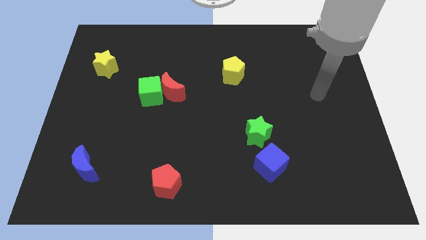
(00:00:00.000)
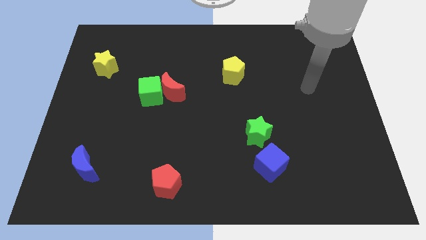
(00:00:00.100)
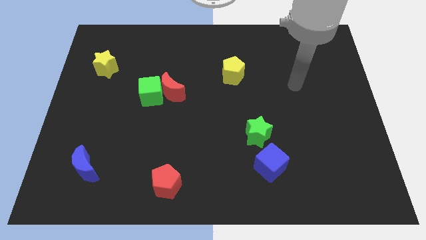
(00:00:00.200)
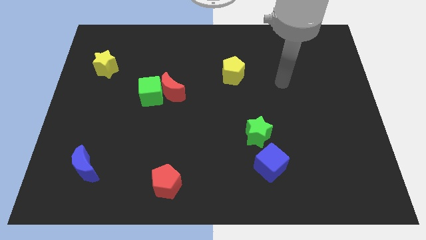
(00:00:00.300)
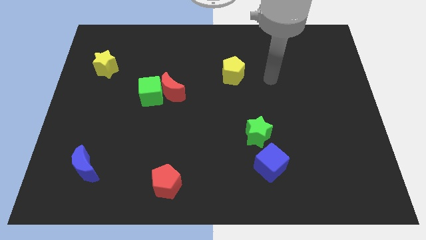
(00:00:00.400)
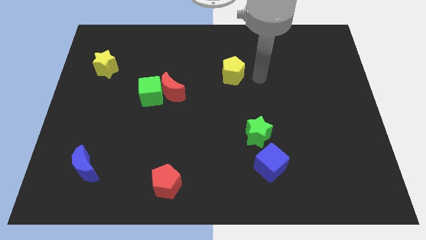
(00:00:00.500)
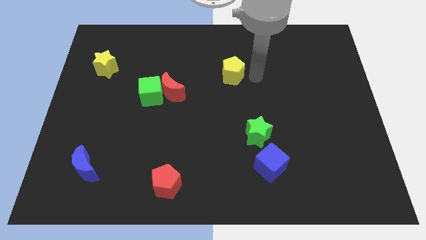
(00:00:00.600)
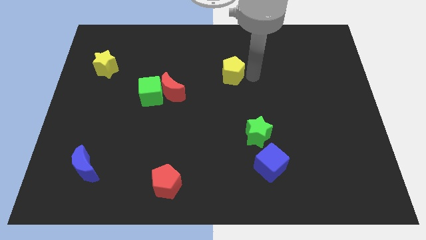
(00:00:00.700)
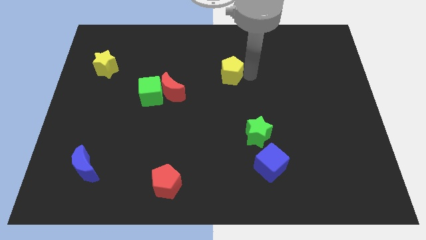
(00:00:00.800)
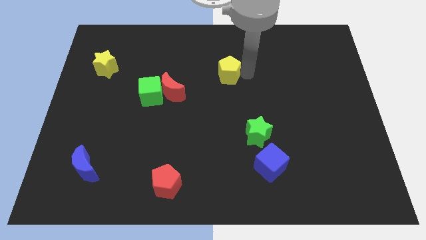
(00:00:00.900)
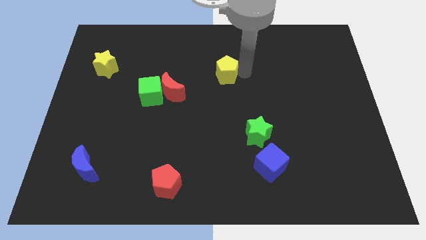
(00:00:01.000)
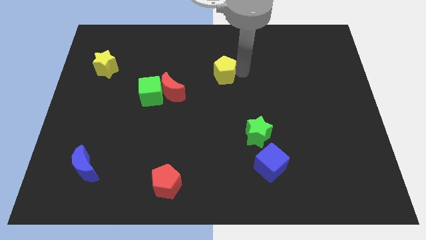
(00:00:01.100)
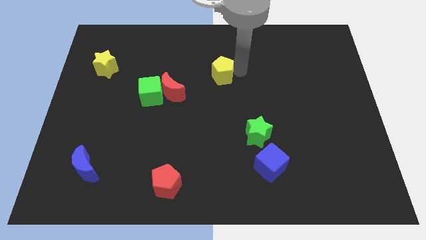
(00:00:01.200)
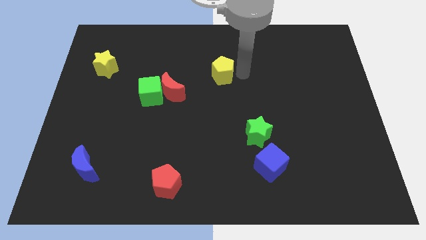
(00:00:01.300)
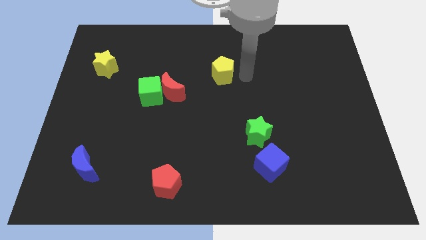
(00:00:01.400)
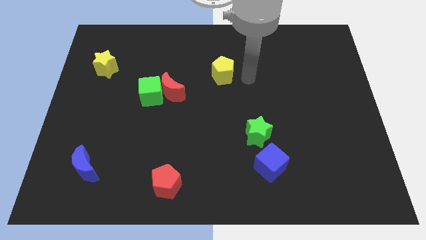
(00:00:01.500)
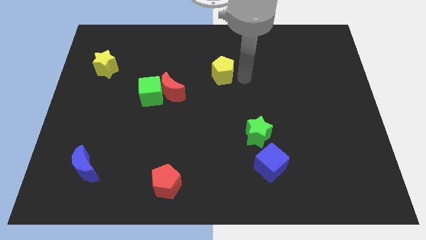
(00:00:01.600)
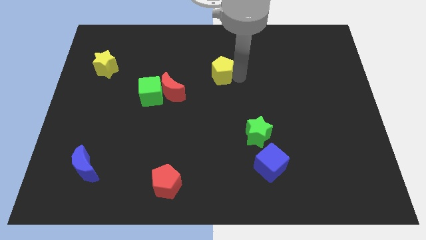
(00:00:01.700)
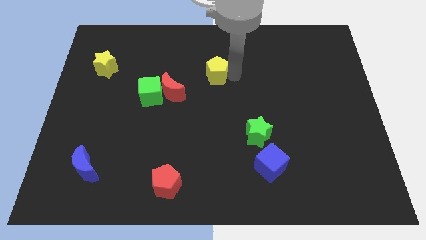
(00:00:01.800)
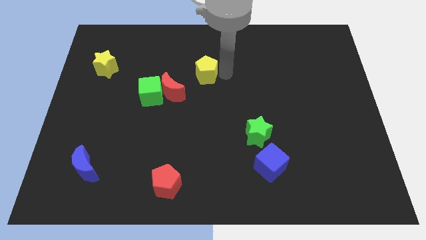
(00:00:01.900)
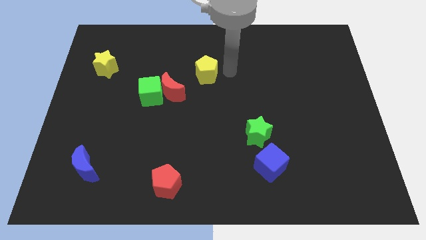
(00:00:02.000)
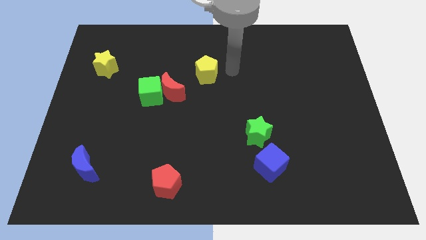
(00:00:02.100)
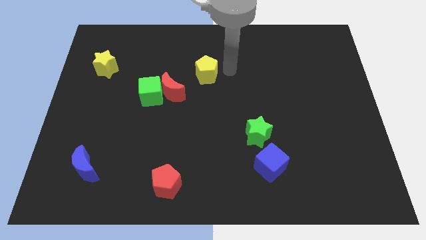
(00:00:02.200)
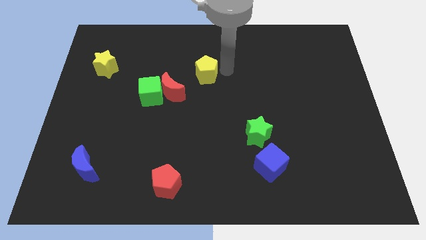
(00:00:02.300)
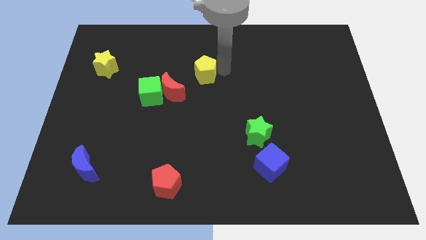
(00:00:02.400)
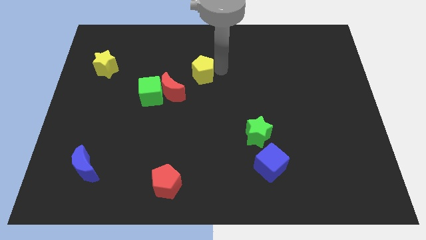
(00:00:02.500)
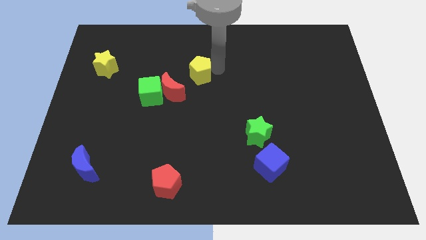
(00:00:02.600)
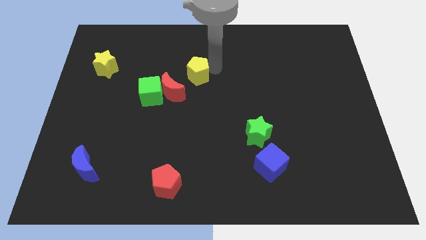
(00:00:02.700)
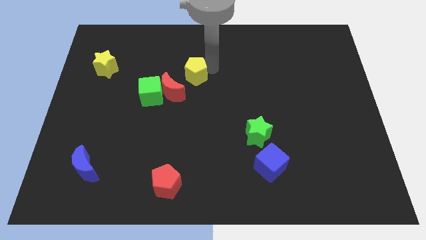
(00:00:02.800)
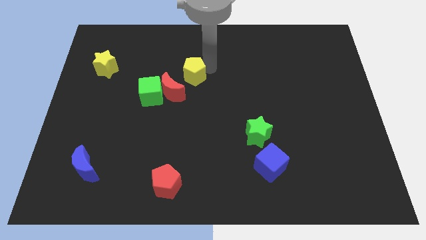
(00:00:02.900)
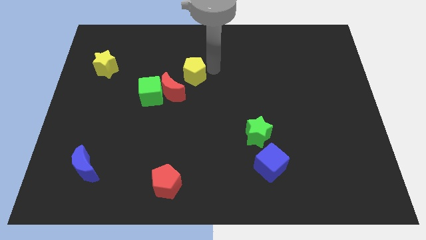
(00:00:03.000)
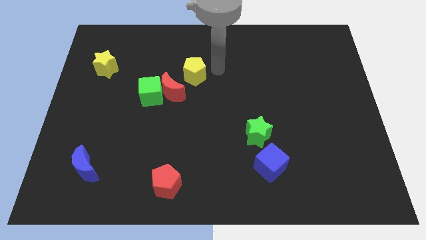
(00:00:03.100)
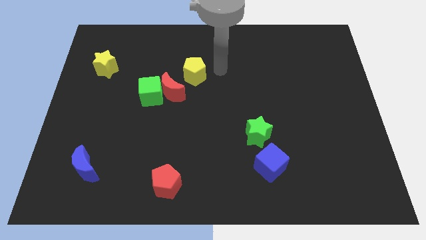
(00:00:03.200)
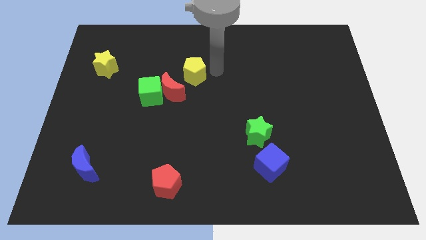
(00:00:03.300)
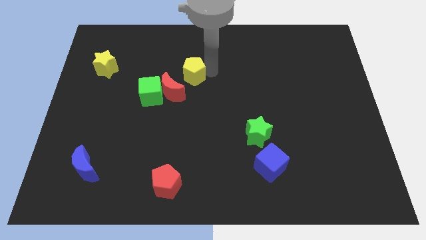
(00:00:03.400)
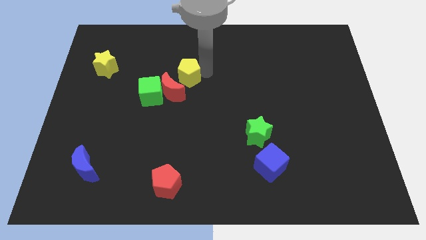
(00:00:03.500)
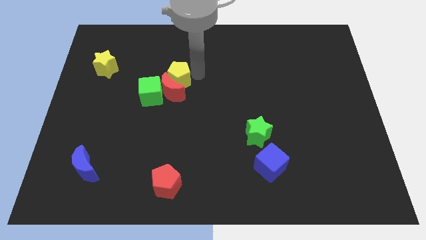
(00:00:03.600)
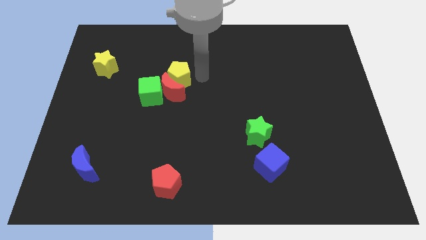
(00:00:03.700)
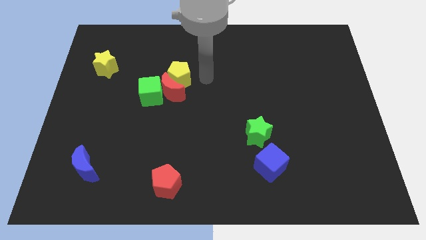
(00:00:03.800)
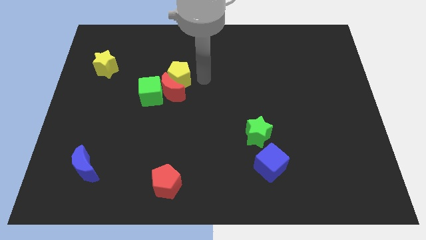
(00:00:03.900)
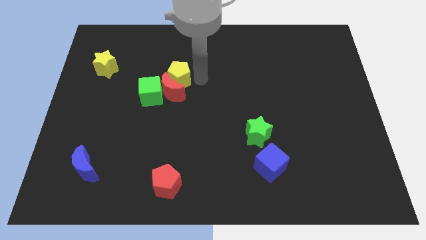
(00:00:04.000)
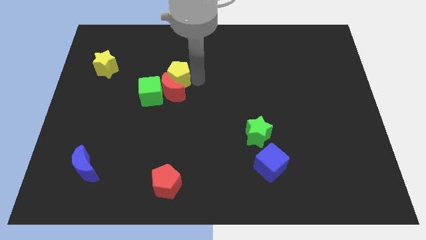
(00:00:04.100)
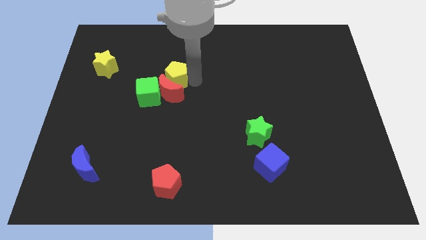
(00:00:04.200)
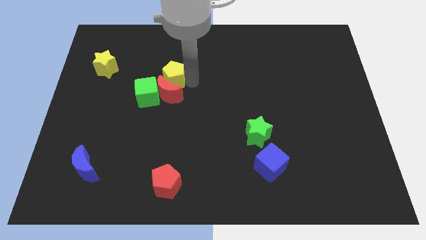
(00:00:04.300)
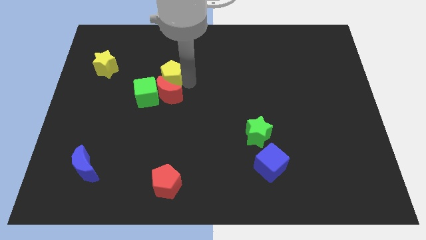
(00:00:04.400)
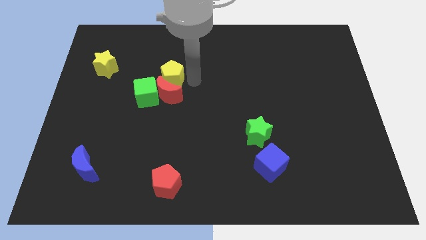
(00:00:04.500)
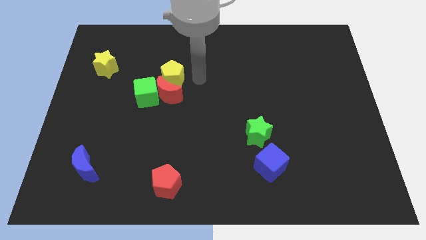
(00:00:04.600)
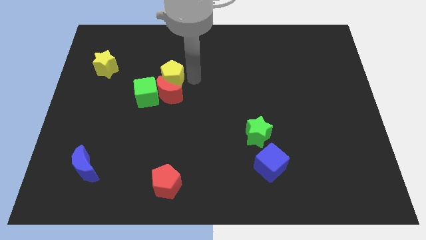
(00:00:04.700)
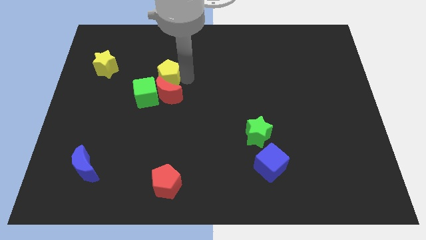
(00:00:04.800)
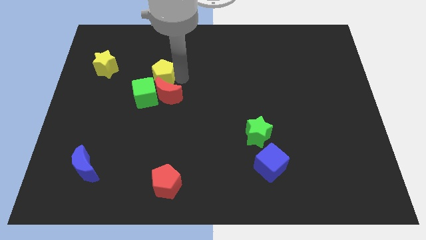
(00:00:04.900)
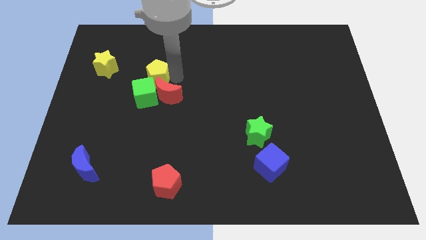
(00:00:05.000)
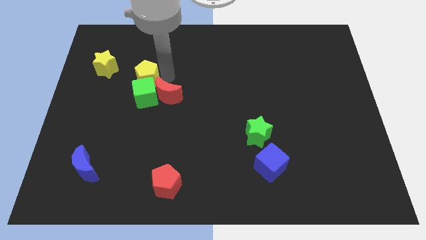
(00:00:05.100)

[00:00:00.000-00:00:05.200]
push the yellow pentagon to the top left side of the green cube
